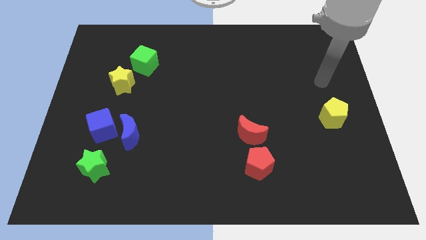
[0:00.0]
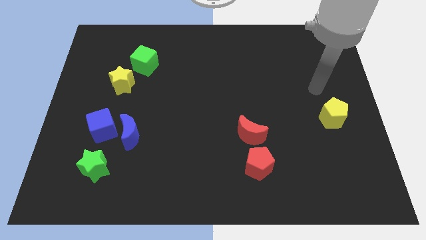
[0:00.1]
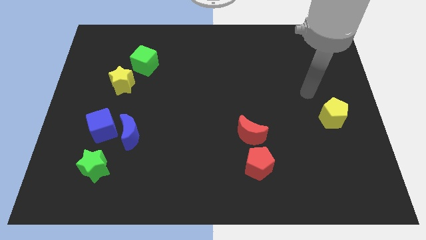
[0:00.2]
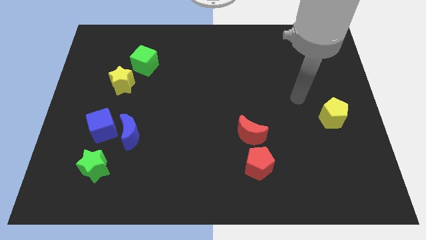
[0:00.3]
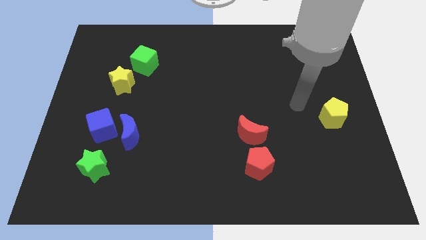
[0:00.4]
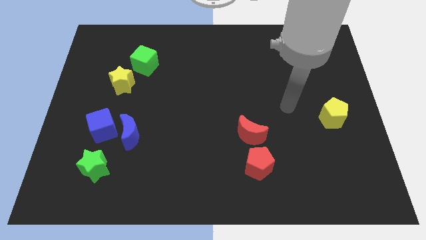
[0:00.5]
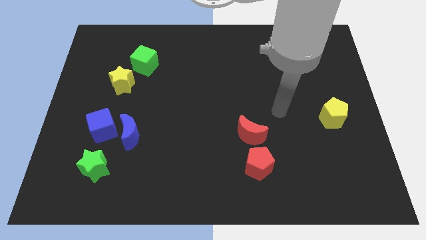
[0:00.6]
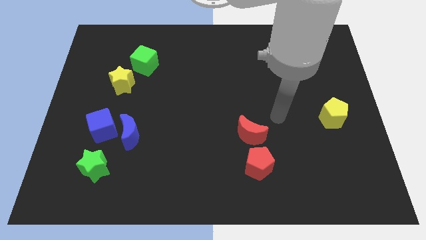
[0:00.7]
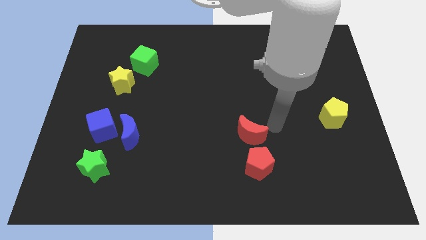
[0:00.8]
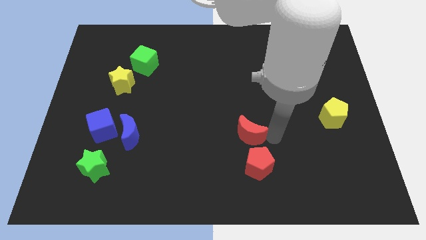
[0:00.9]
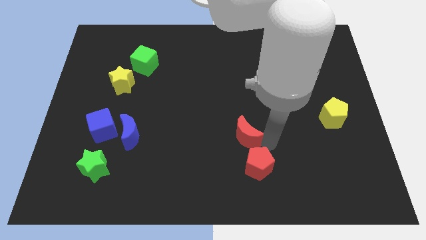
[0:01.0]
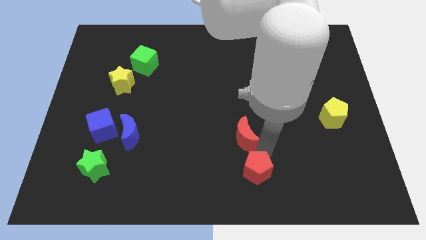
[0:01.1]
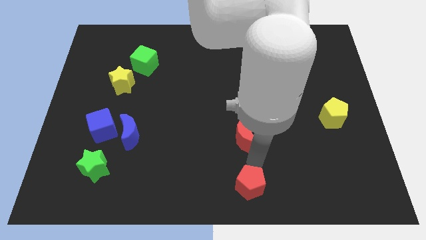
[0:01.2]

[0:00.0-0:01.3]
move the red moon away from the red pentagon

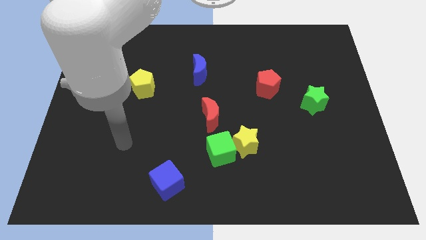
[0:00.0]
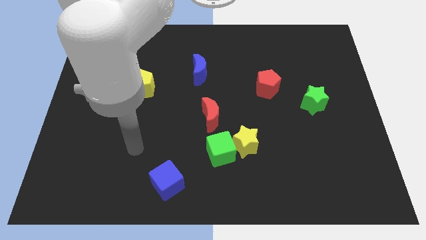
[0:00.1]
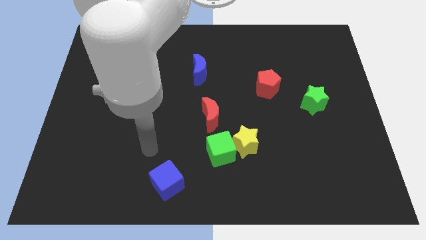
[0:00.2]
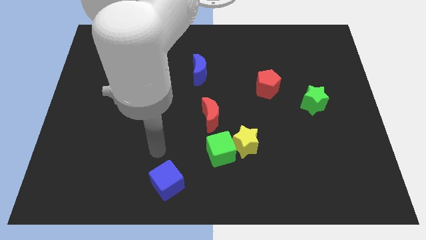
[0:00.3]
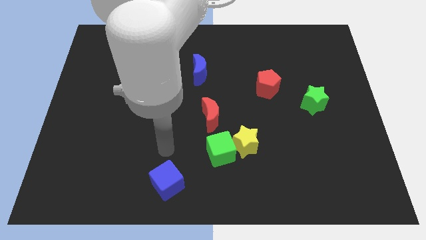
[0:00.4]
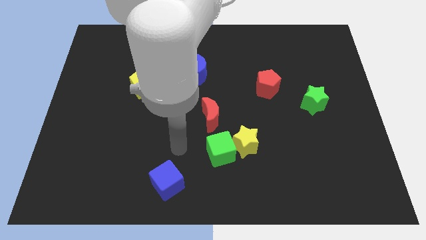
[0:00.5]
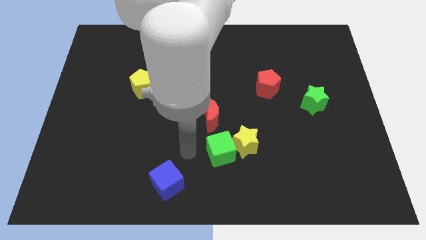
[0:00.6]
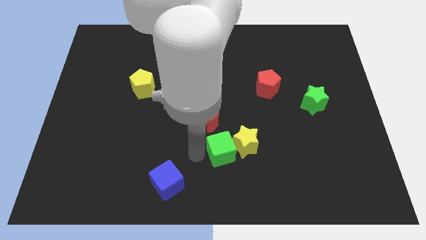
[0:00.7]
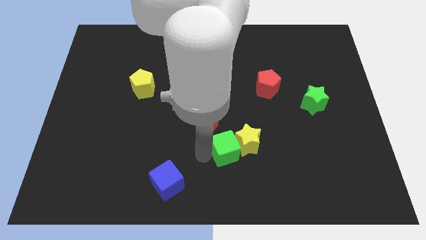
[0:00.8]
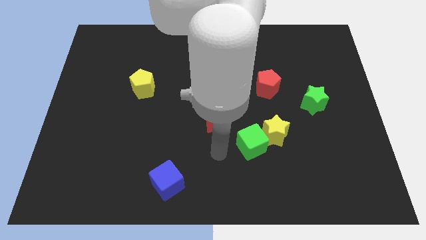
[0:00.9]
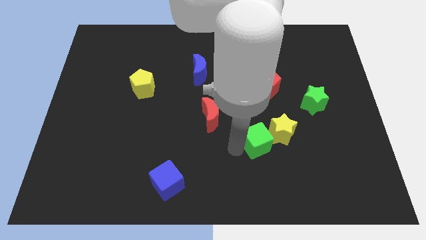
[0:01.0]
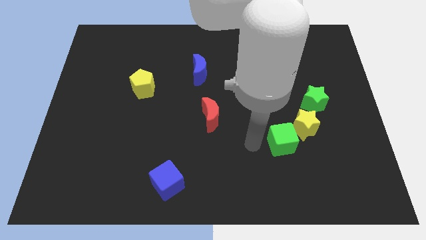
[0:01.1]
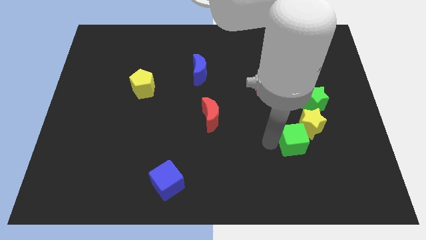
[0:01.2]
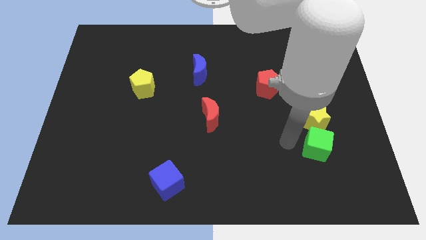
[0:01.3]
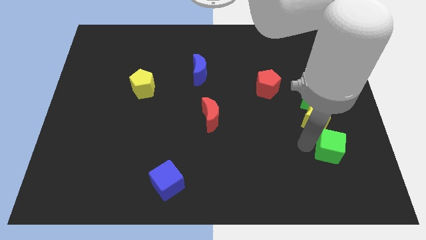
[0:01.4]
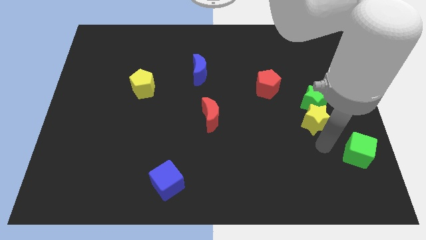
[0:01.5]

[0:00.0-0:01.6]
move the yellow star away from the green cube

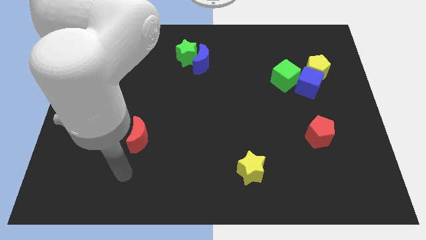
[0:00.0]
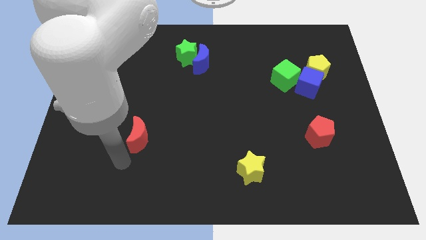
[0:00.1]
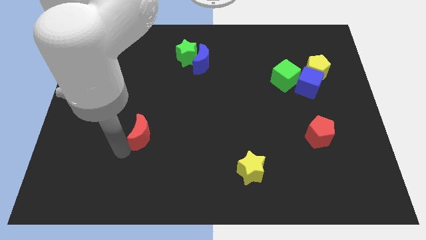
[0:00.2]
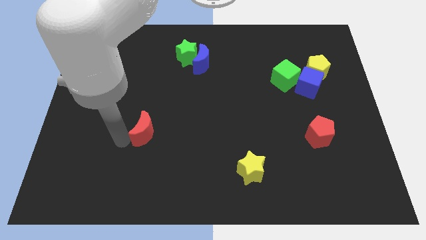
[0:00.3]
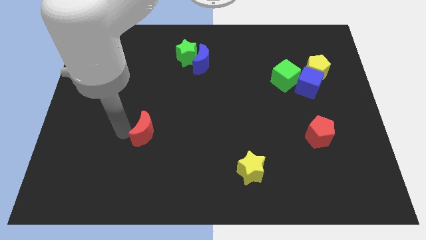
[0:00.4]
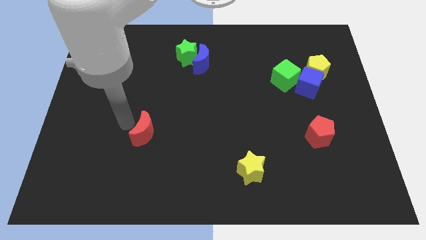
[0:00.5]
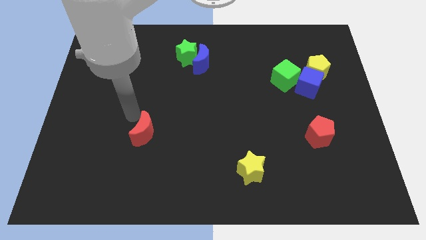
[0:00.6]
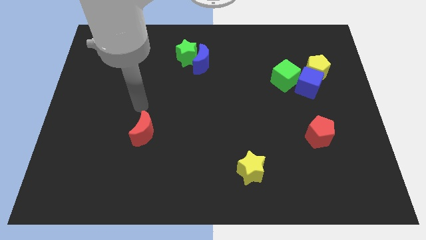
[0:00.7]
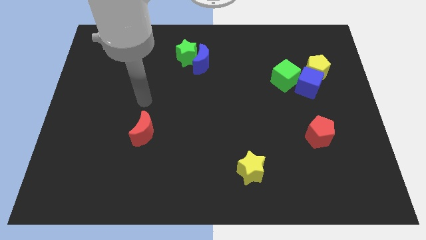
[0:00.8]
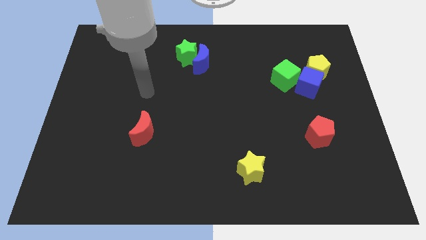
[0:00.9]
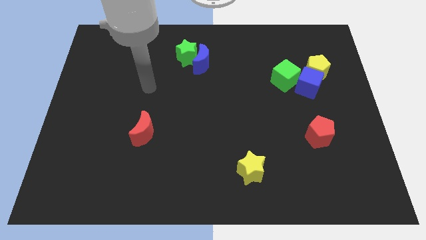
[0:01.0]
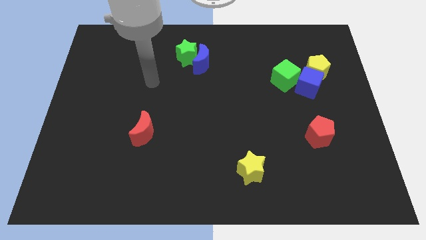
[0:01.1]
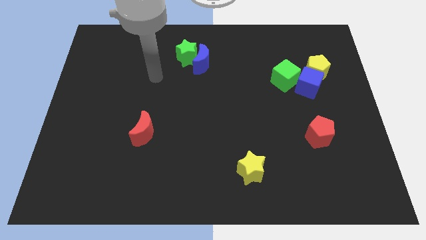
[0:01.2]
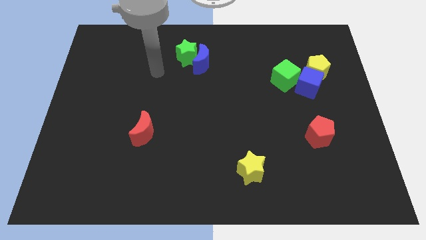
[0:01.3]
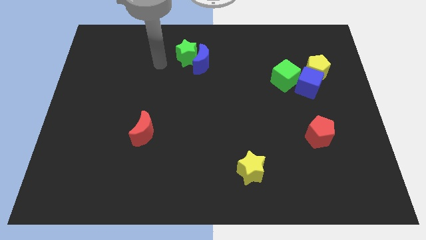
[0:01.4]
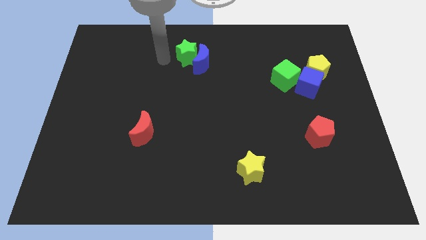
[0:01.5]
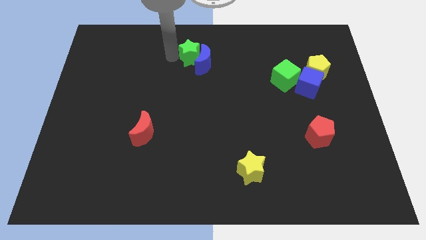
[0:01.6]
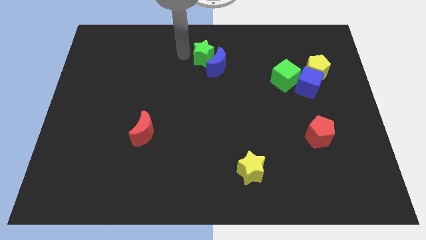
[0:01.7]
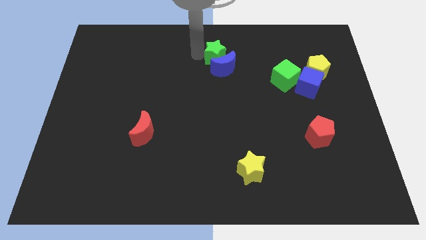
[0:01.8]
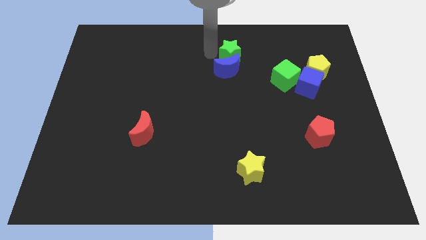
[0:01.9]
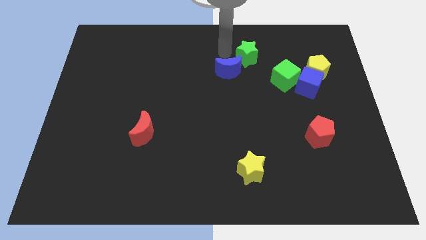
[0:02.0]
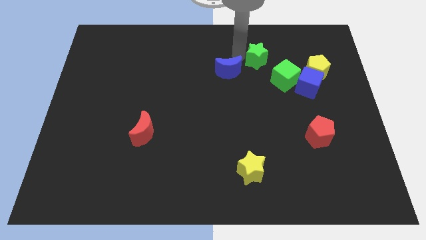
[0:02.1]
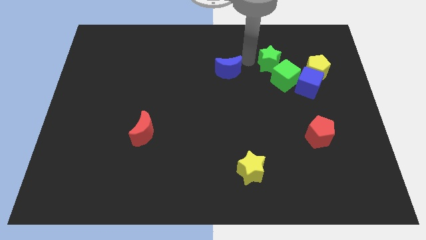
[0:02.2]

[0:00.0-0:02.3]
pull the blue moon apart from the green star

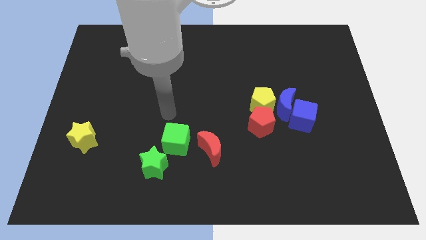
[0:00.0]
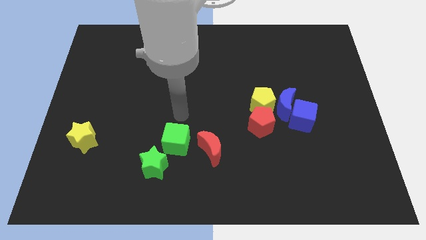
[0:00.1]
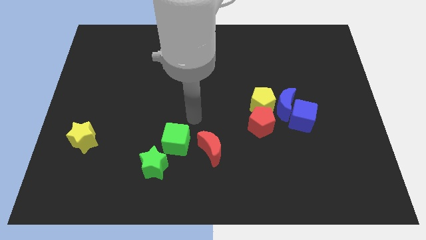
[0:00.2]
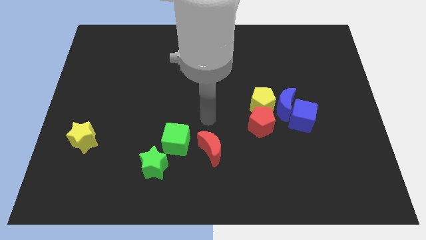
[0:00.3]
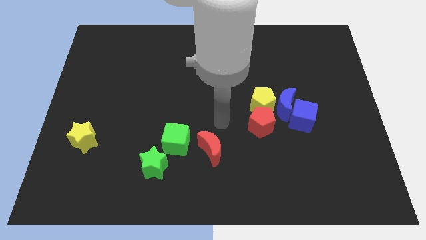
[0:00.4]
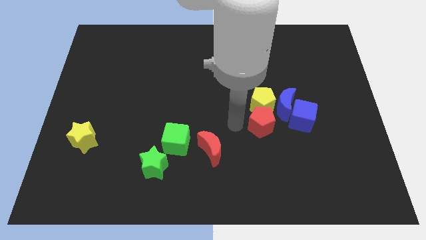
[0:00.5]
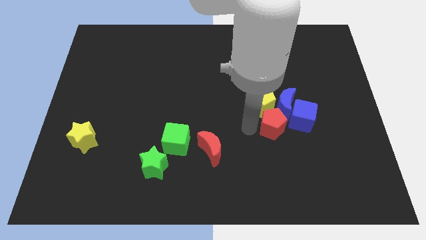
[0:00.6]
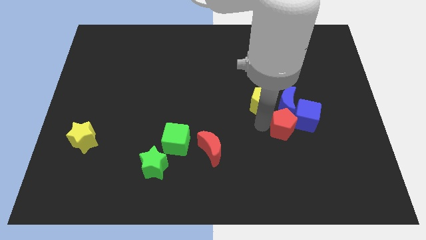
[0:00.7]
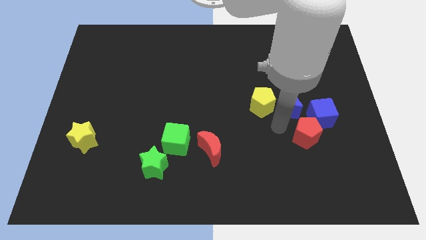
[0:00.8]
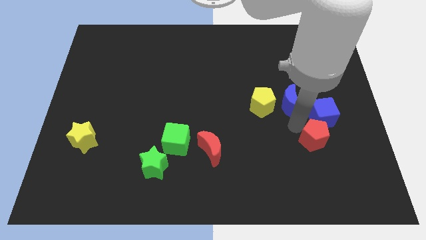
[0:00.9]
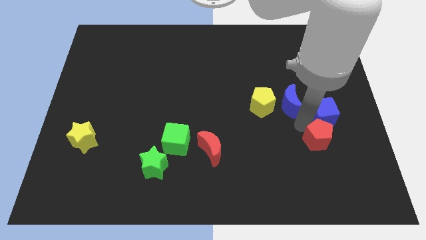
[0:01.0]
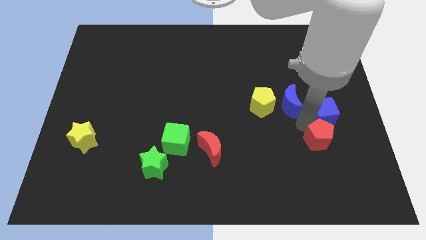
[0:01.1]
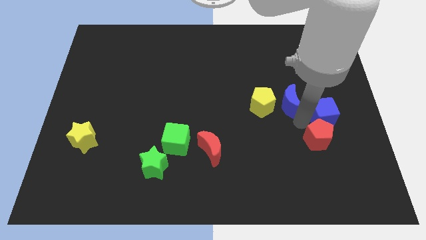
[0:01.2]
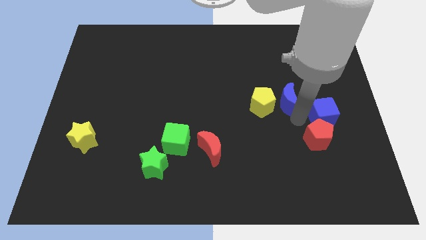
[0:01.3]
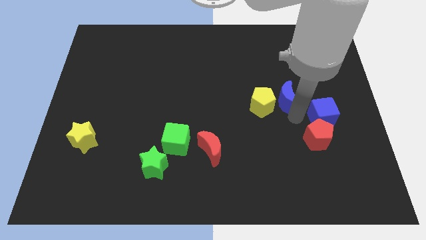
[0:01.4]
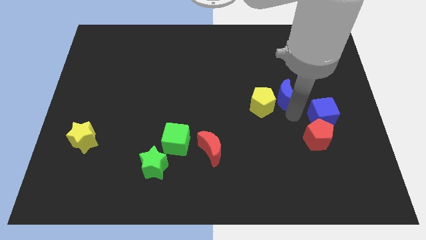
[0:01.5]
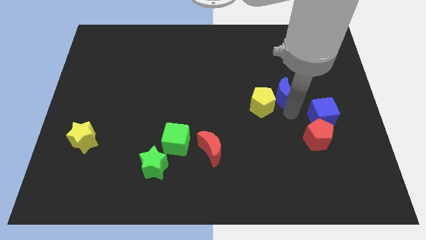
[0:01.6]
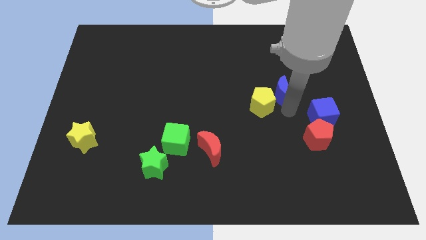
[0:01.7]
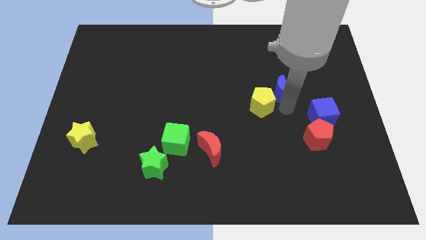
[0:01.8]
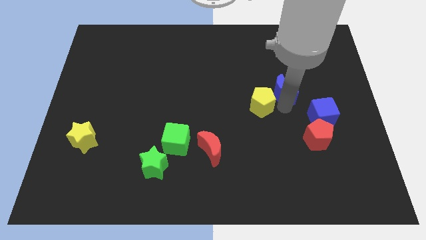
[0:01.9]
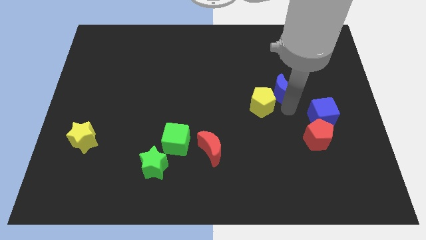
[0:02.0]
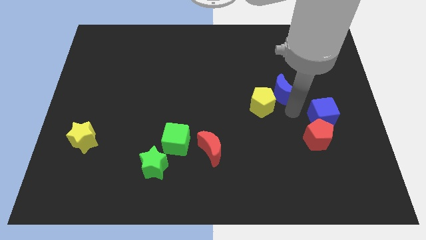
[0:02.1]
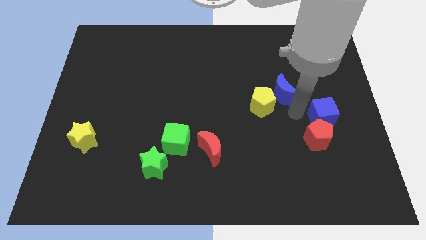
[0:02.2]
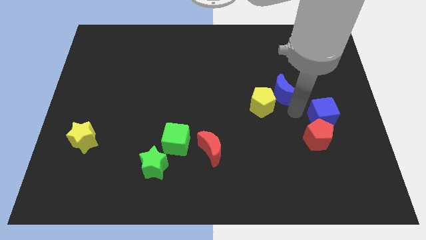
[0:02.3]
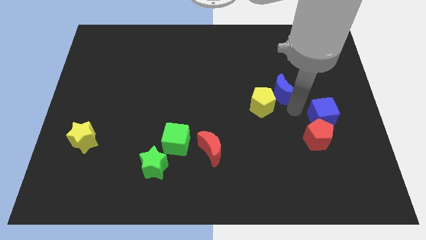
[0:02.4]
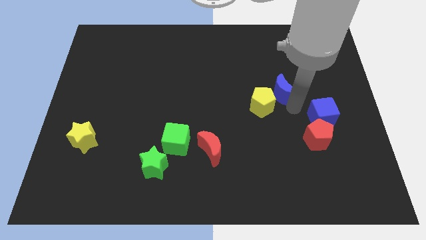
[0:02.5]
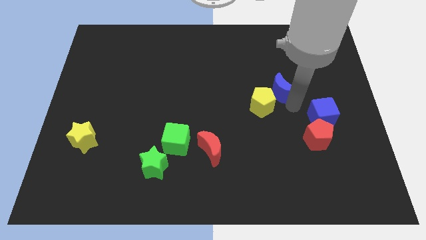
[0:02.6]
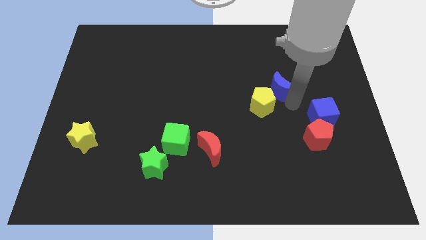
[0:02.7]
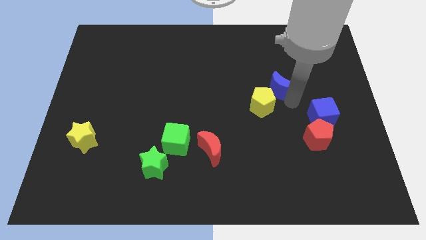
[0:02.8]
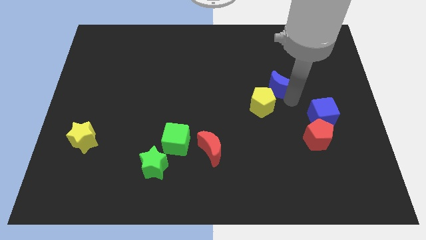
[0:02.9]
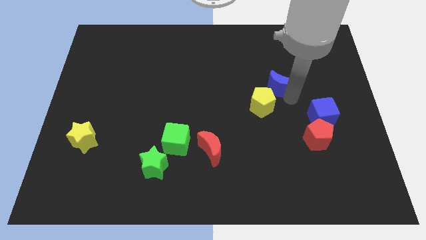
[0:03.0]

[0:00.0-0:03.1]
move the blue moon away from the group of blocks

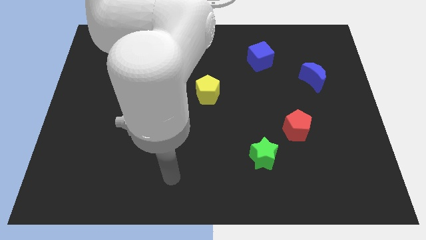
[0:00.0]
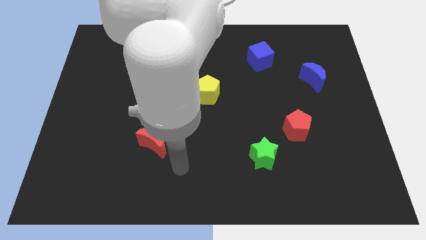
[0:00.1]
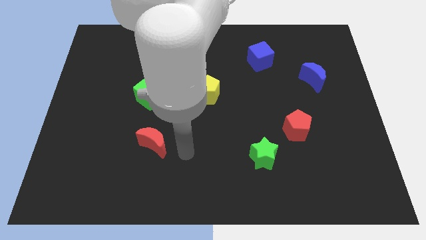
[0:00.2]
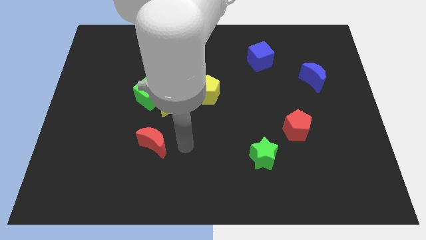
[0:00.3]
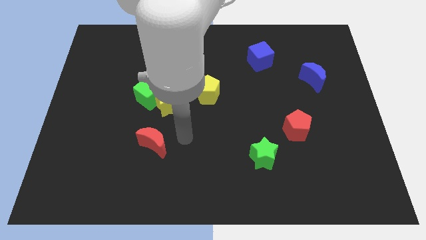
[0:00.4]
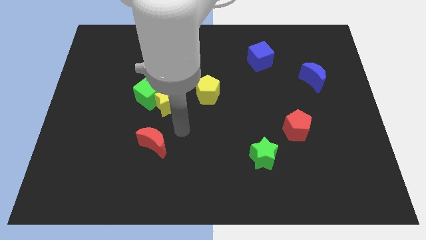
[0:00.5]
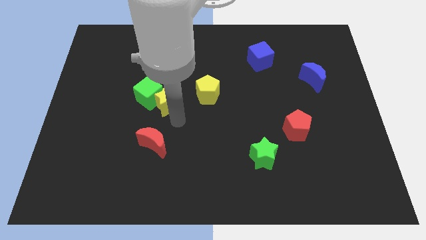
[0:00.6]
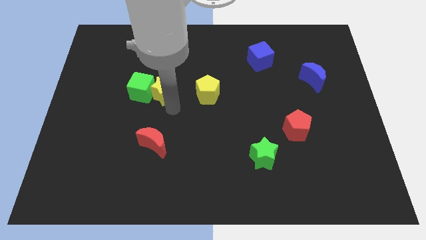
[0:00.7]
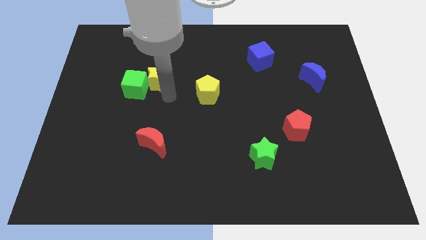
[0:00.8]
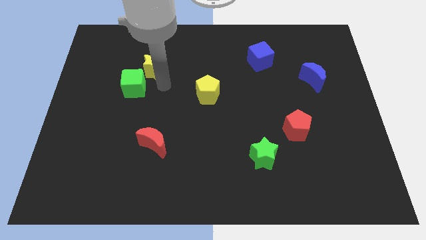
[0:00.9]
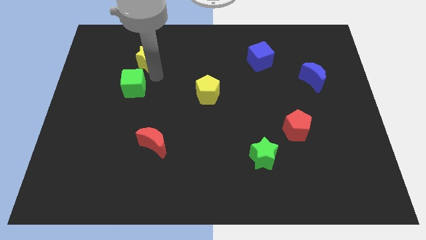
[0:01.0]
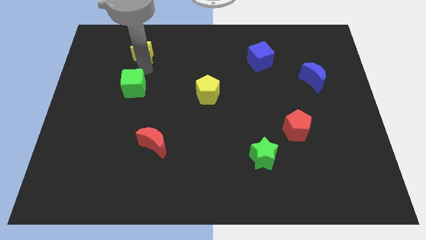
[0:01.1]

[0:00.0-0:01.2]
separate the green cube from the yellow star
